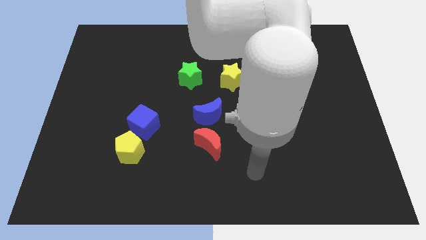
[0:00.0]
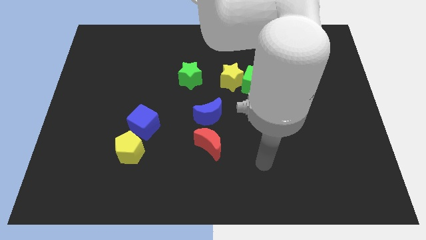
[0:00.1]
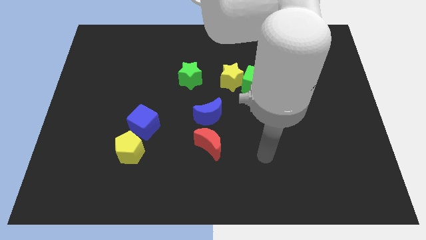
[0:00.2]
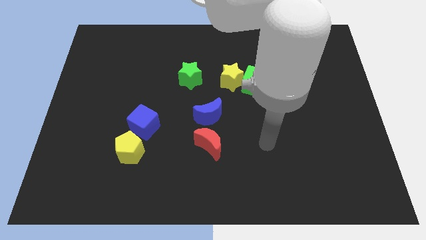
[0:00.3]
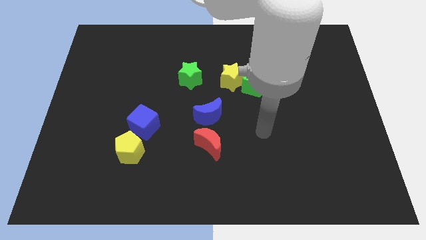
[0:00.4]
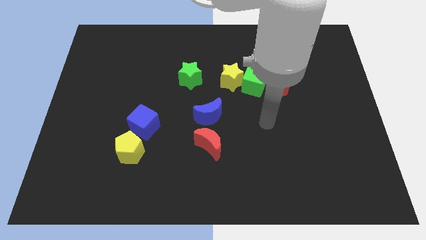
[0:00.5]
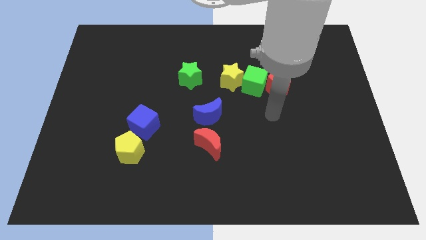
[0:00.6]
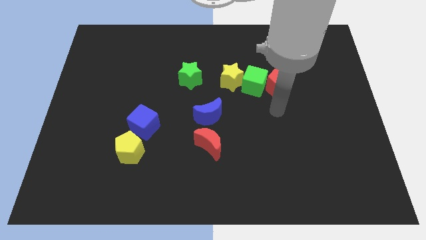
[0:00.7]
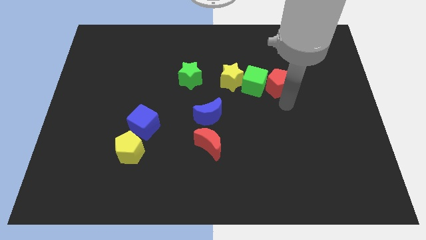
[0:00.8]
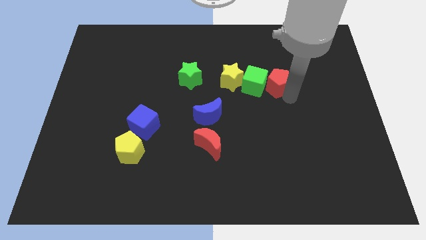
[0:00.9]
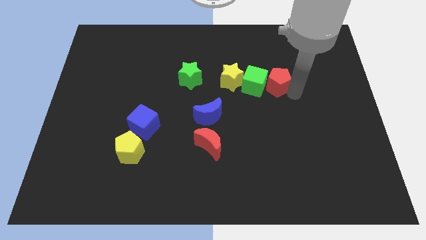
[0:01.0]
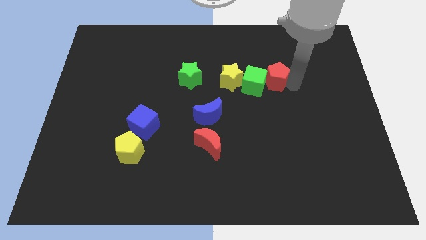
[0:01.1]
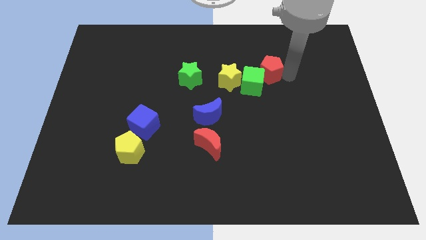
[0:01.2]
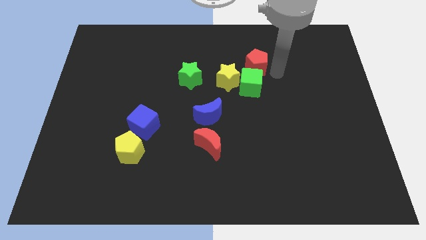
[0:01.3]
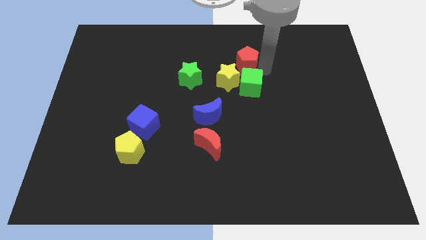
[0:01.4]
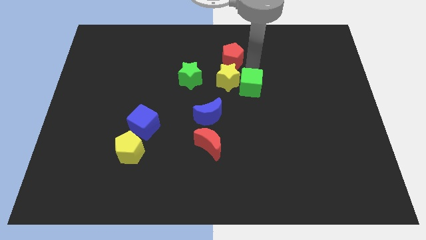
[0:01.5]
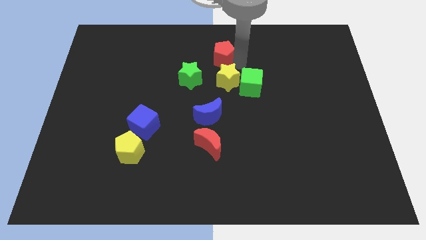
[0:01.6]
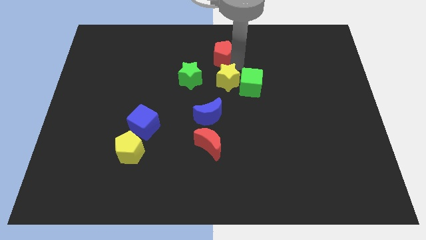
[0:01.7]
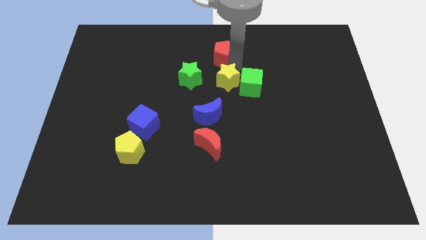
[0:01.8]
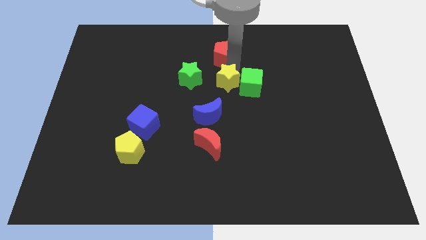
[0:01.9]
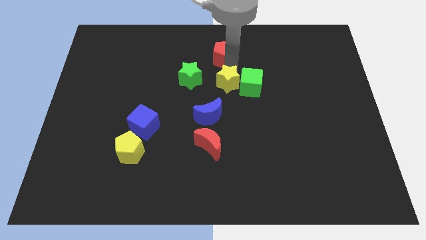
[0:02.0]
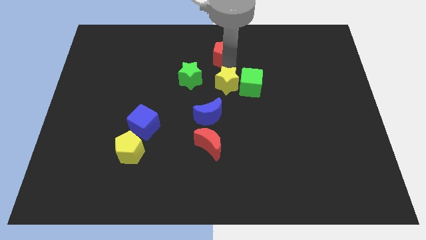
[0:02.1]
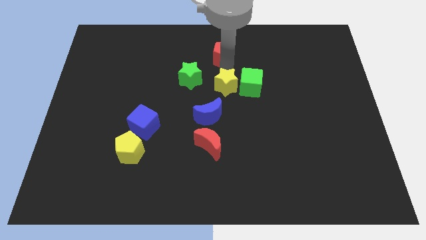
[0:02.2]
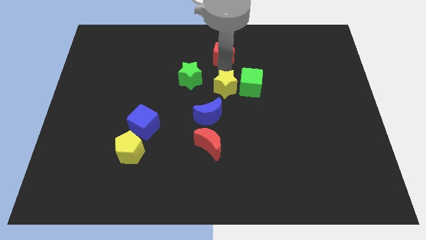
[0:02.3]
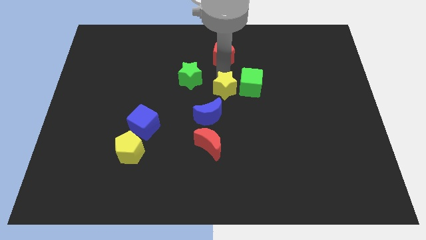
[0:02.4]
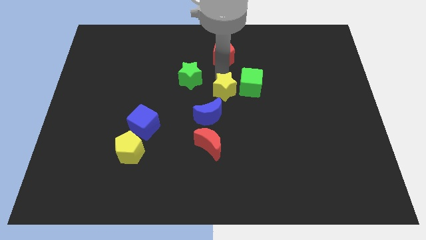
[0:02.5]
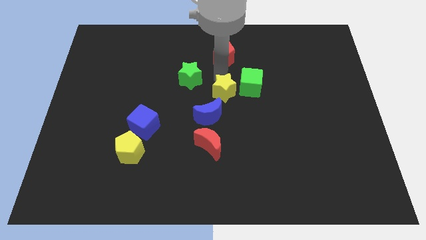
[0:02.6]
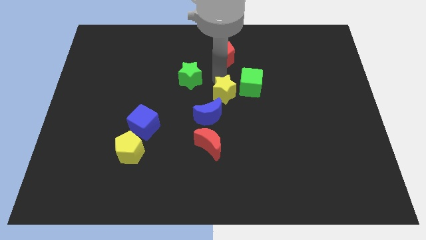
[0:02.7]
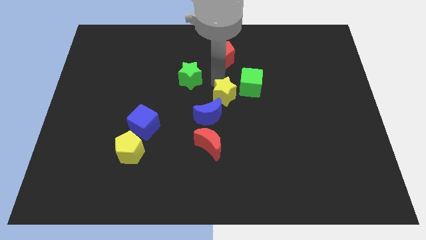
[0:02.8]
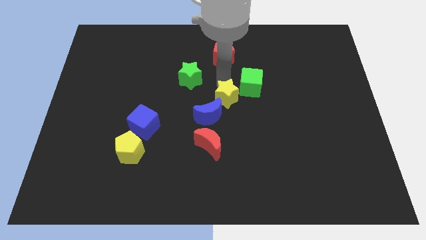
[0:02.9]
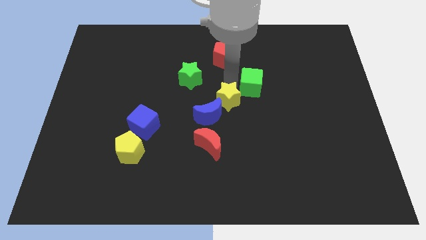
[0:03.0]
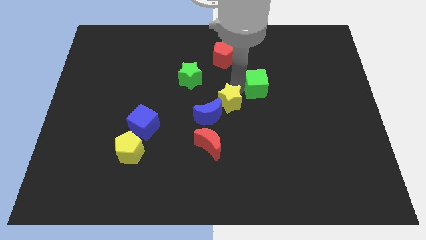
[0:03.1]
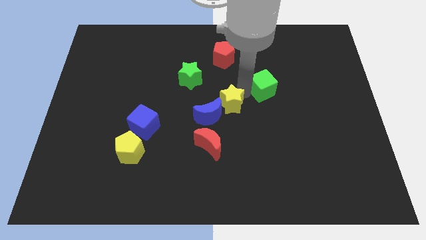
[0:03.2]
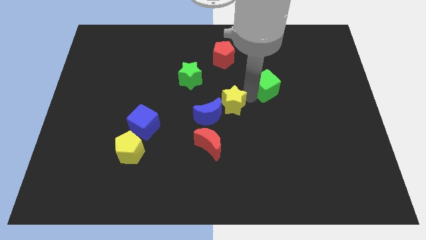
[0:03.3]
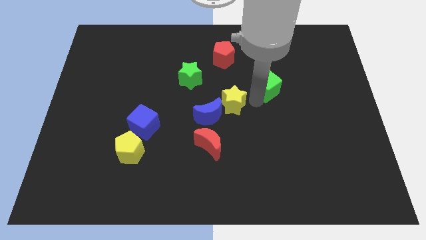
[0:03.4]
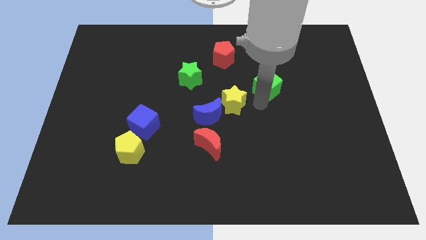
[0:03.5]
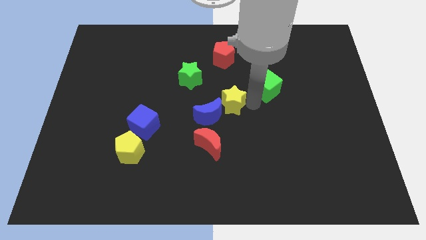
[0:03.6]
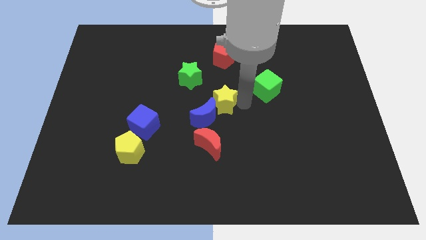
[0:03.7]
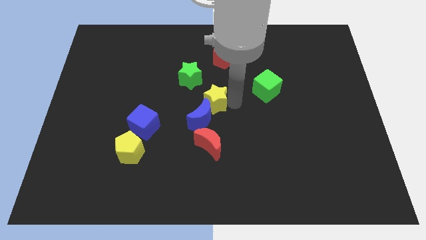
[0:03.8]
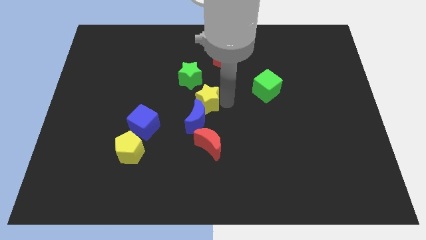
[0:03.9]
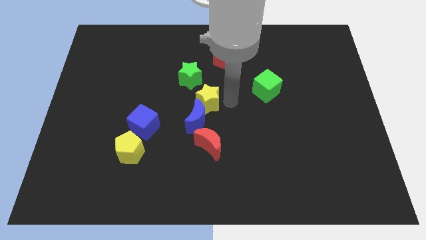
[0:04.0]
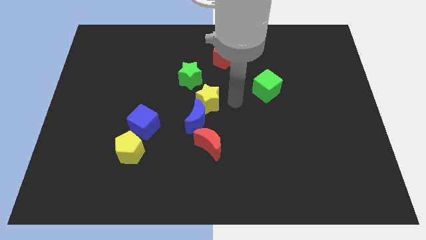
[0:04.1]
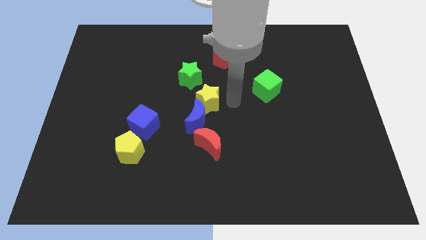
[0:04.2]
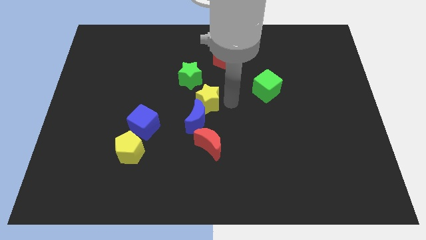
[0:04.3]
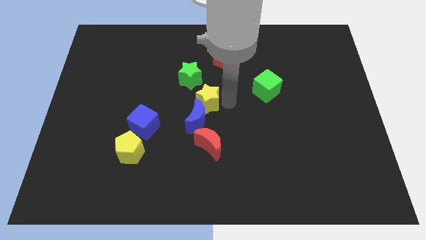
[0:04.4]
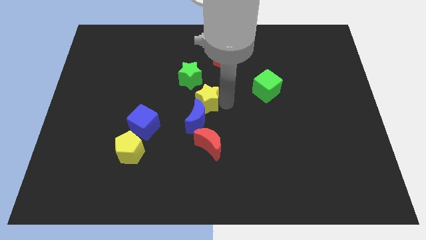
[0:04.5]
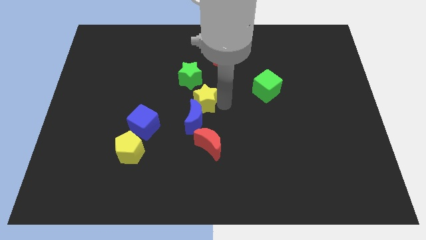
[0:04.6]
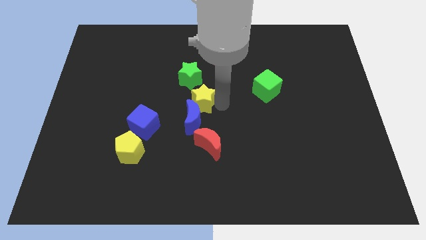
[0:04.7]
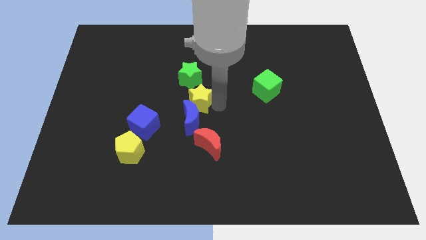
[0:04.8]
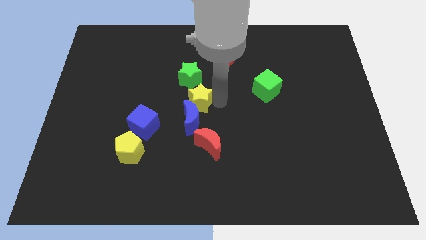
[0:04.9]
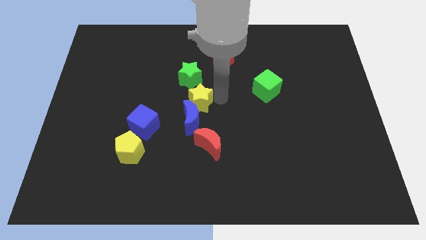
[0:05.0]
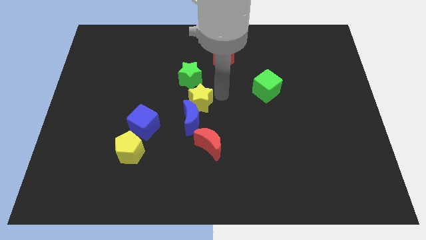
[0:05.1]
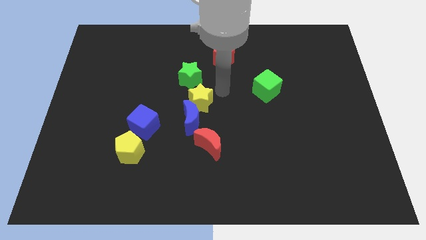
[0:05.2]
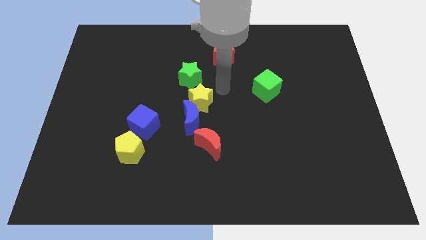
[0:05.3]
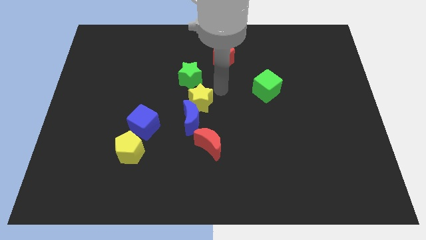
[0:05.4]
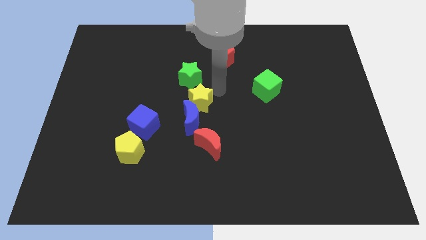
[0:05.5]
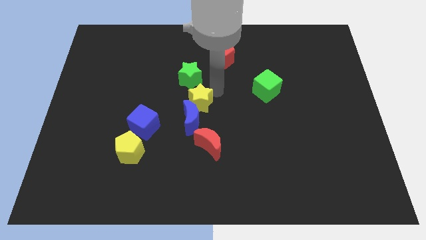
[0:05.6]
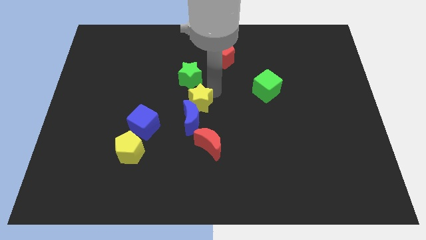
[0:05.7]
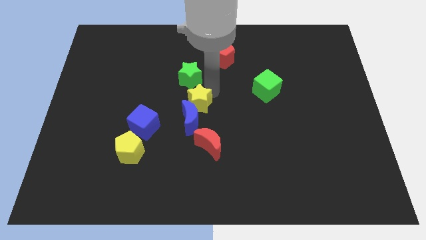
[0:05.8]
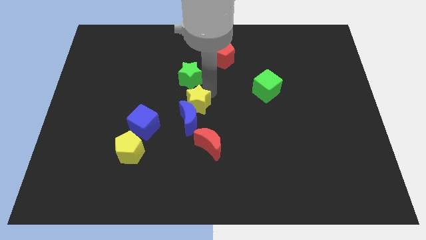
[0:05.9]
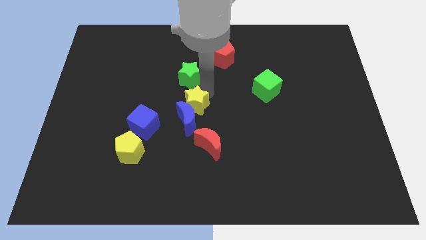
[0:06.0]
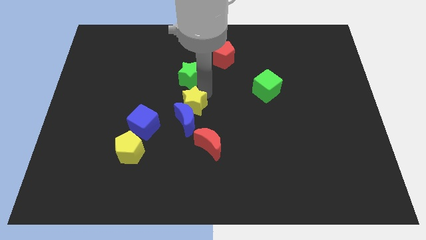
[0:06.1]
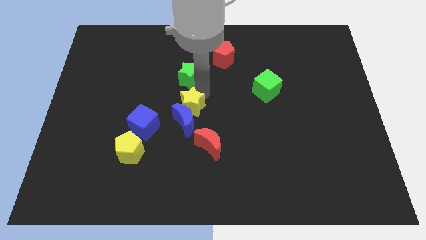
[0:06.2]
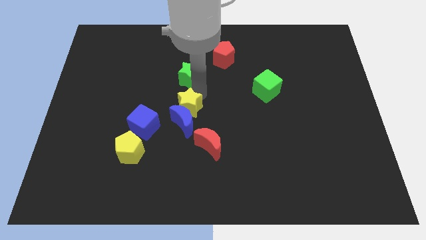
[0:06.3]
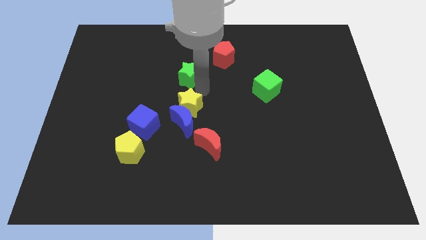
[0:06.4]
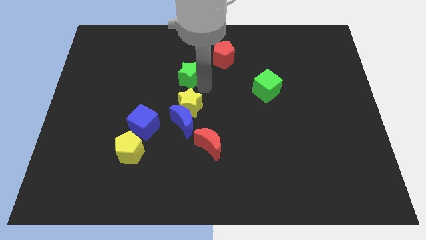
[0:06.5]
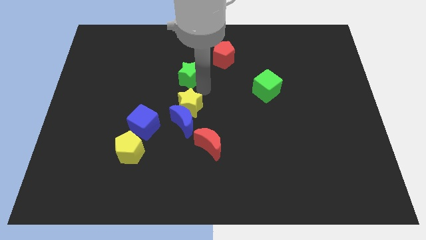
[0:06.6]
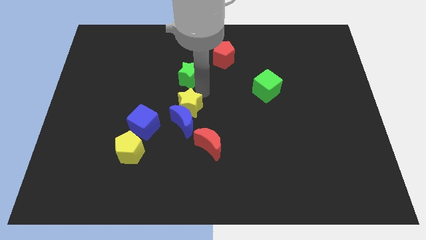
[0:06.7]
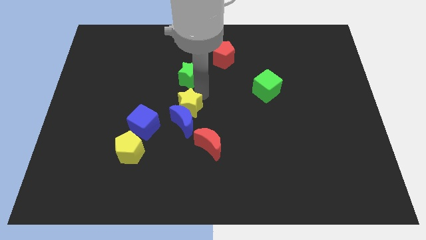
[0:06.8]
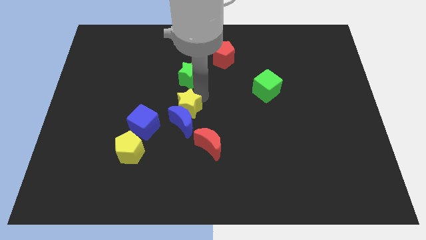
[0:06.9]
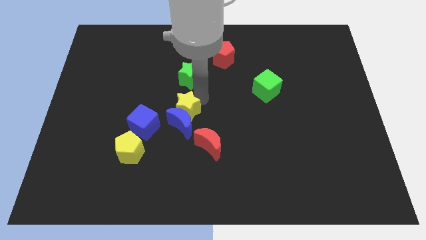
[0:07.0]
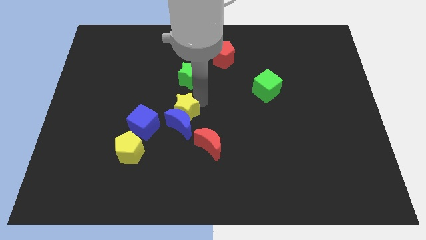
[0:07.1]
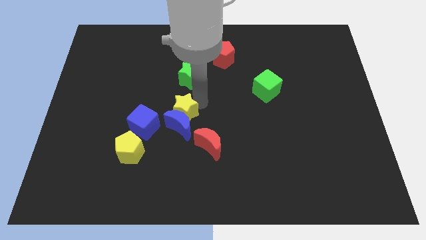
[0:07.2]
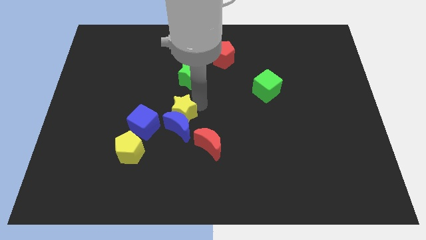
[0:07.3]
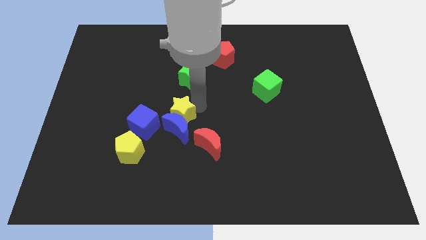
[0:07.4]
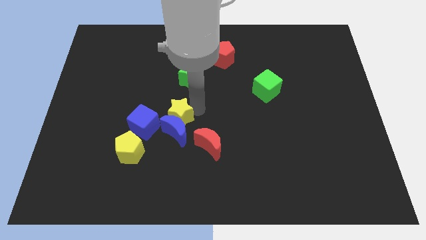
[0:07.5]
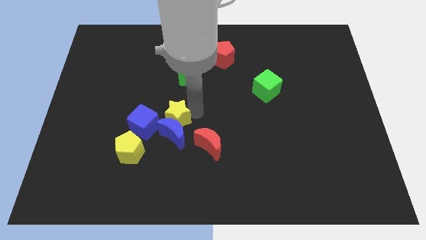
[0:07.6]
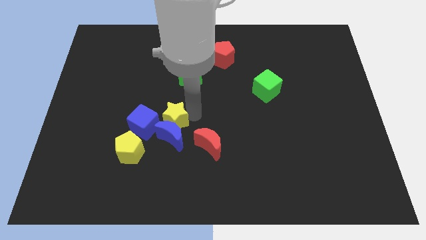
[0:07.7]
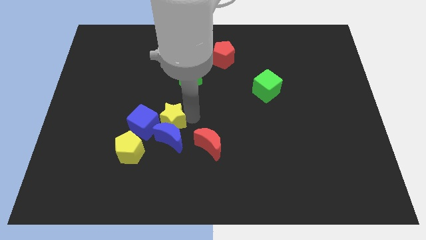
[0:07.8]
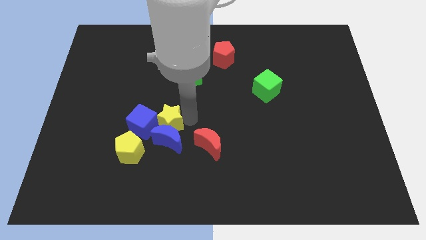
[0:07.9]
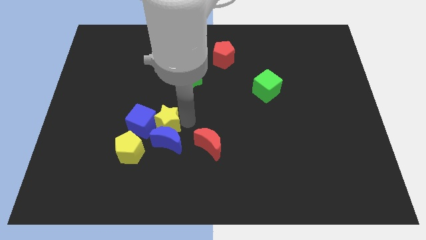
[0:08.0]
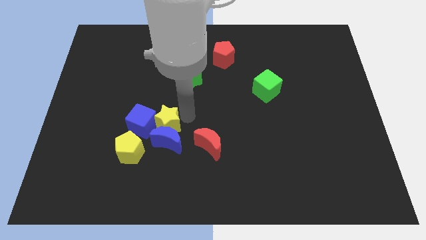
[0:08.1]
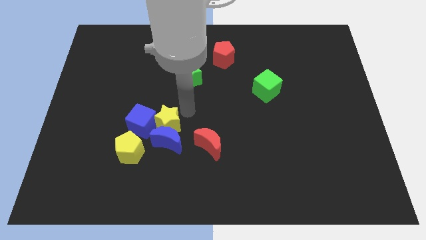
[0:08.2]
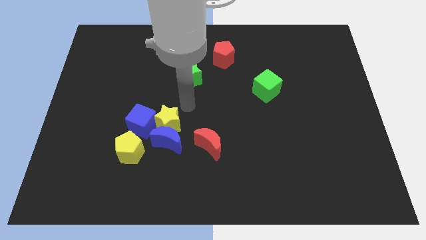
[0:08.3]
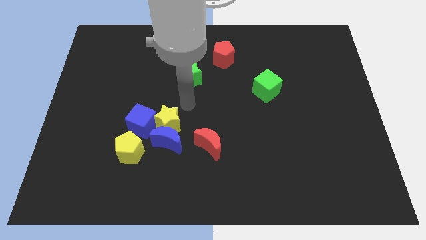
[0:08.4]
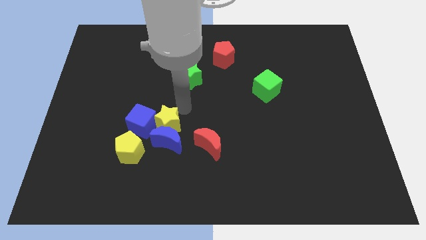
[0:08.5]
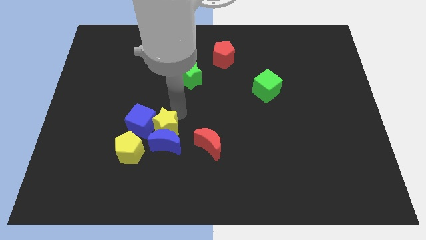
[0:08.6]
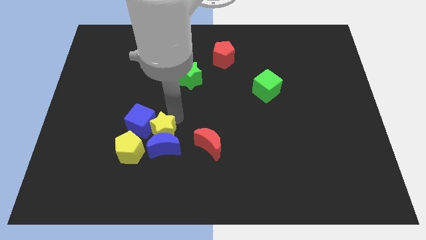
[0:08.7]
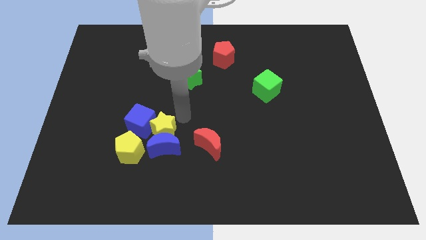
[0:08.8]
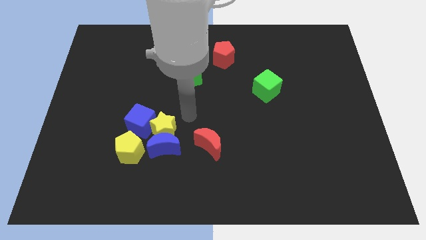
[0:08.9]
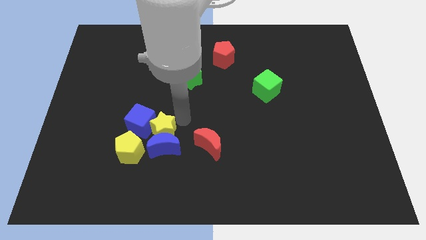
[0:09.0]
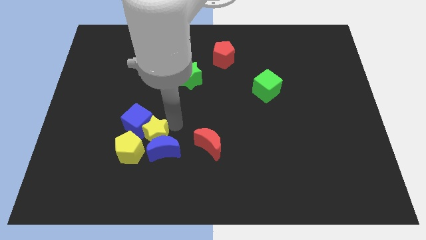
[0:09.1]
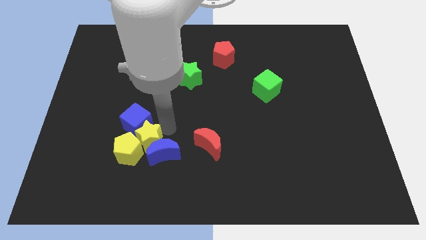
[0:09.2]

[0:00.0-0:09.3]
push the yellow star towards the yellow pentagon
